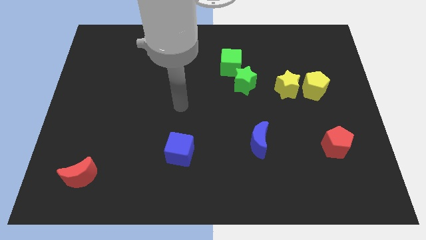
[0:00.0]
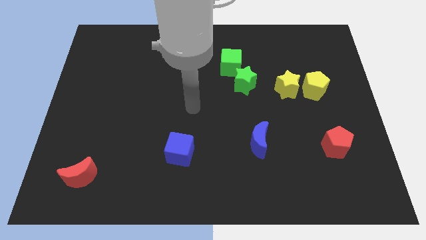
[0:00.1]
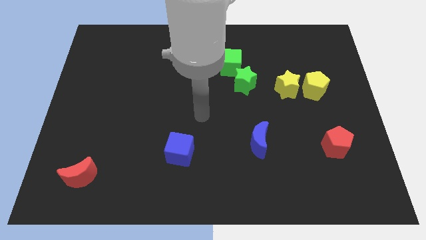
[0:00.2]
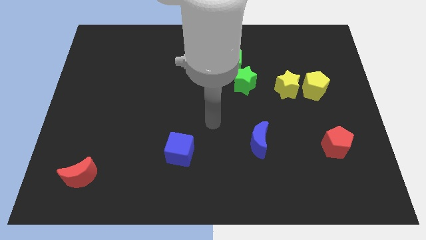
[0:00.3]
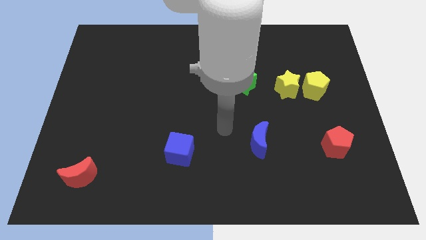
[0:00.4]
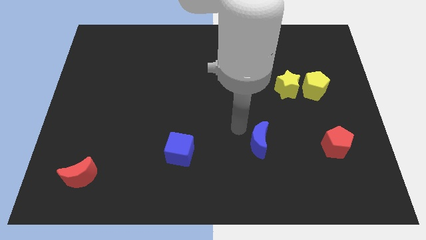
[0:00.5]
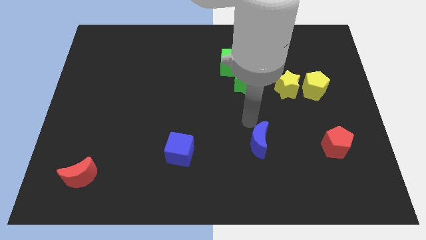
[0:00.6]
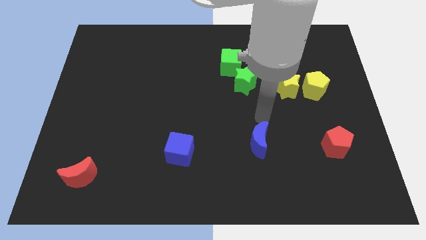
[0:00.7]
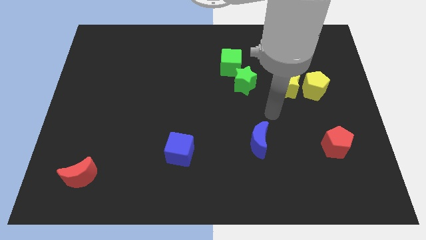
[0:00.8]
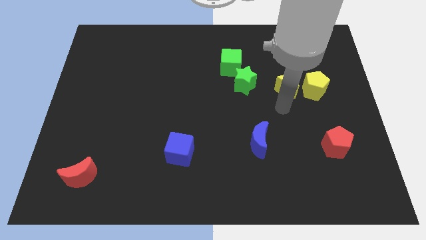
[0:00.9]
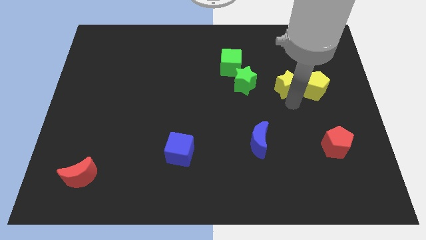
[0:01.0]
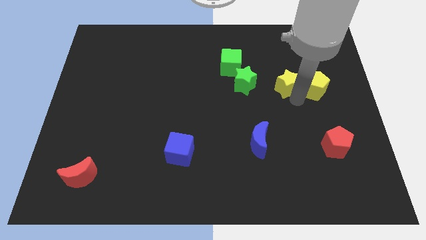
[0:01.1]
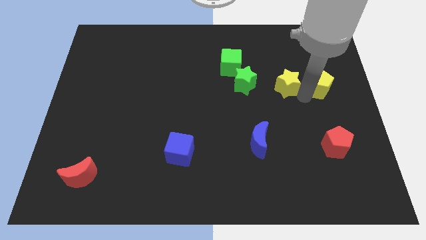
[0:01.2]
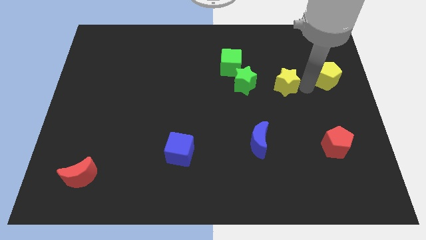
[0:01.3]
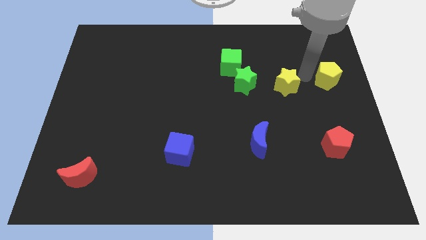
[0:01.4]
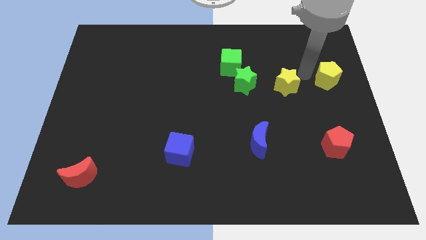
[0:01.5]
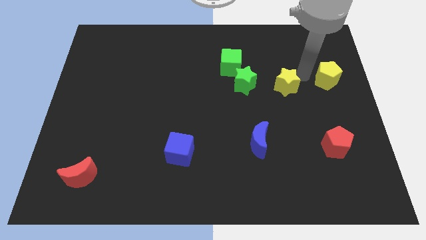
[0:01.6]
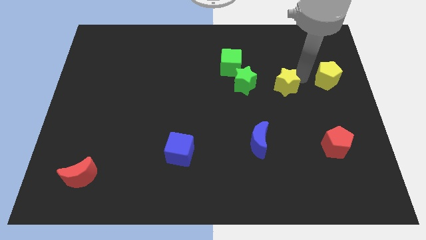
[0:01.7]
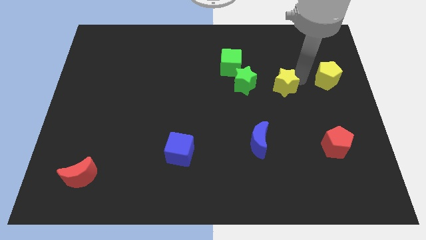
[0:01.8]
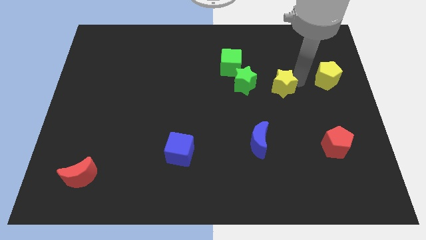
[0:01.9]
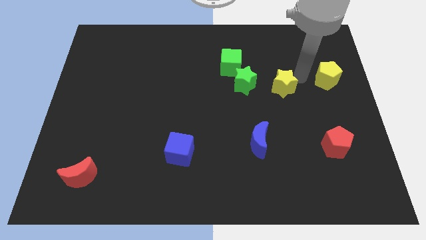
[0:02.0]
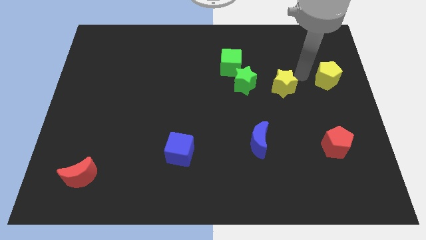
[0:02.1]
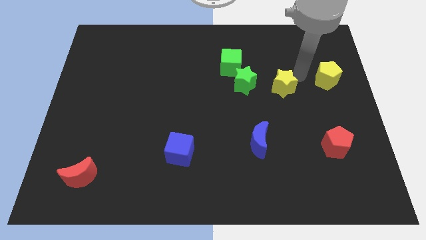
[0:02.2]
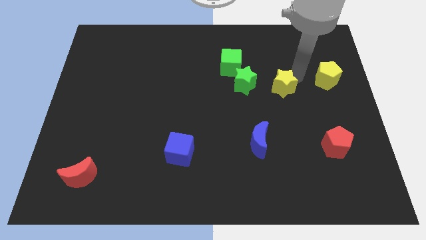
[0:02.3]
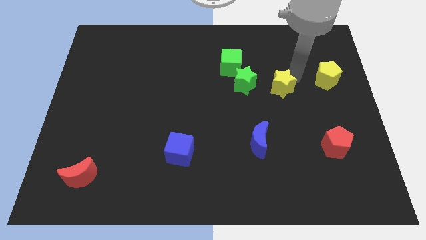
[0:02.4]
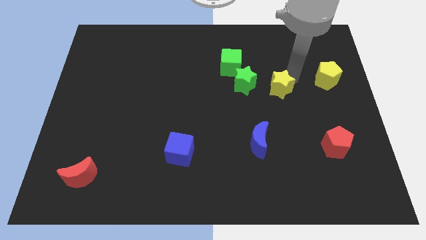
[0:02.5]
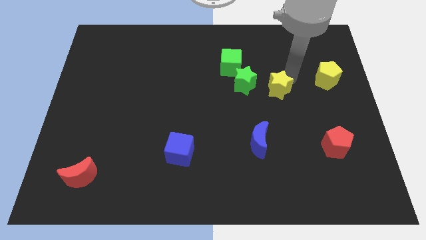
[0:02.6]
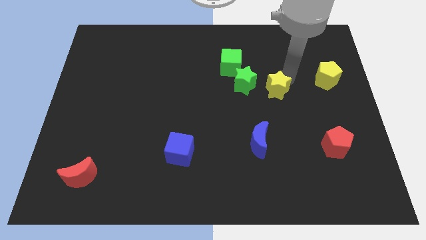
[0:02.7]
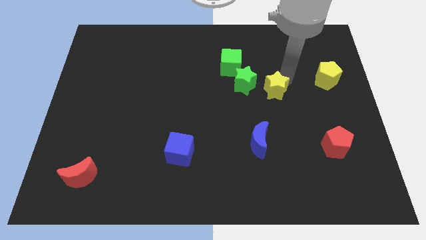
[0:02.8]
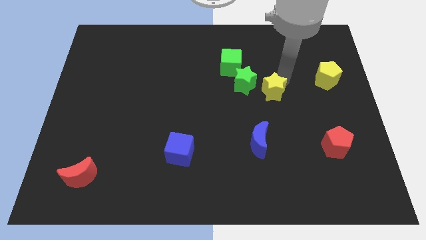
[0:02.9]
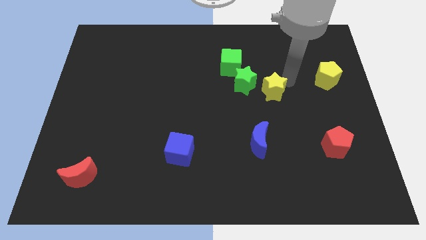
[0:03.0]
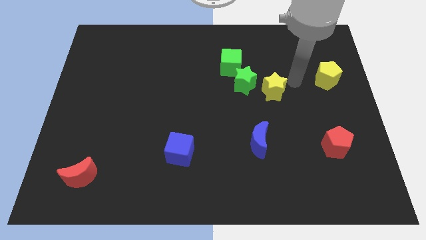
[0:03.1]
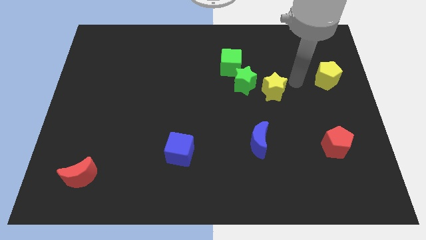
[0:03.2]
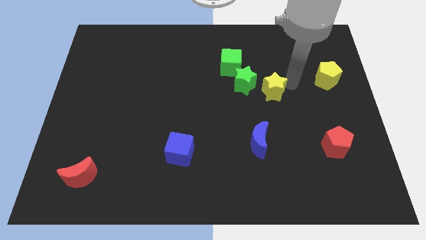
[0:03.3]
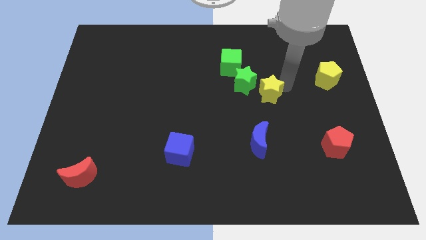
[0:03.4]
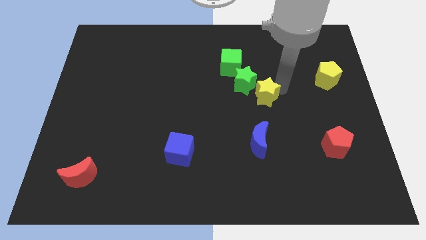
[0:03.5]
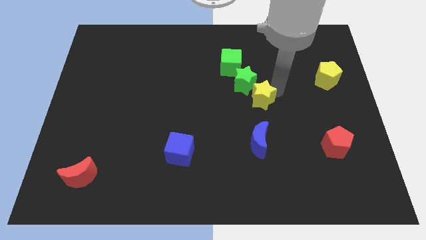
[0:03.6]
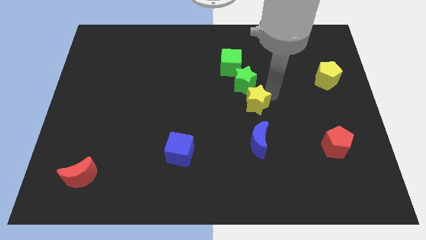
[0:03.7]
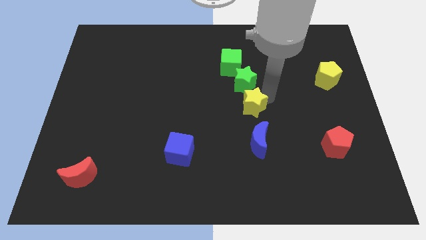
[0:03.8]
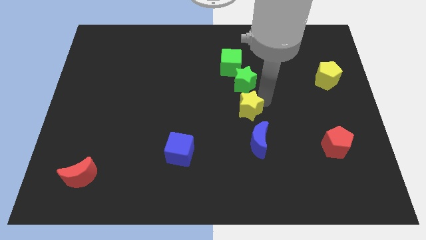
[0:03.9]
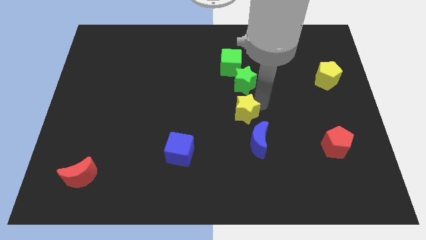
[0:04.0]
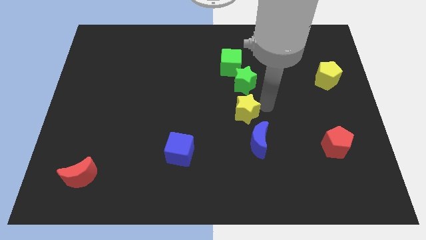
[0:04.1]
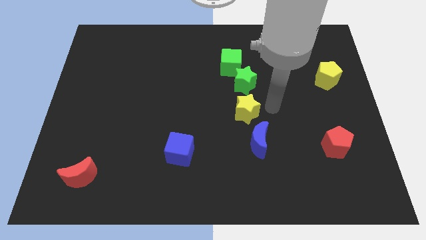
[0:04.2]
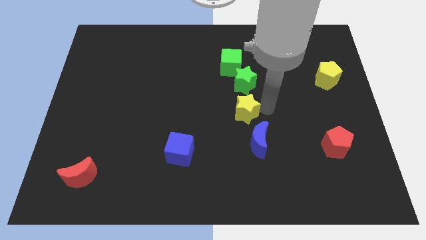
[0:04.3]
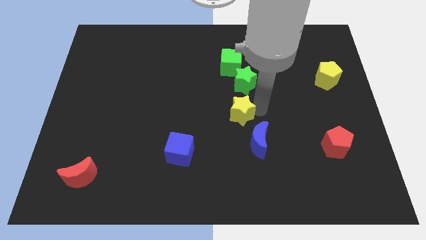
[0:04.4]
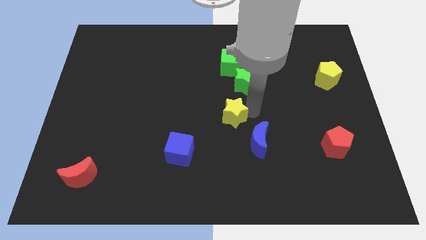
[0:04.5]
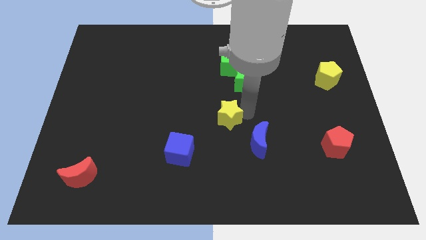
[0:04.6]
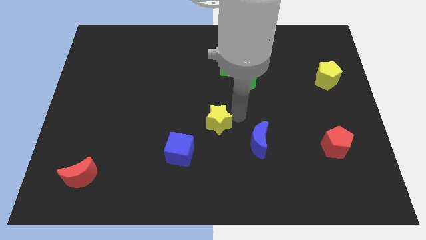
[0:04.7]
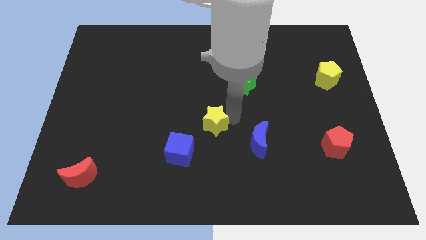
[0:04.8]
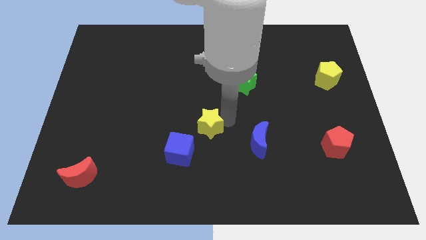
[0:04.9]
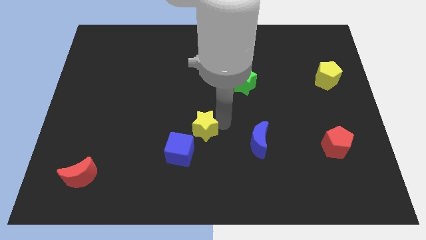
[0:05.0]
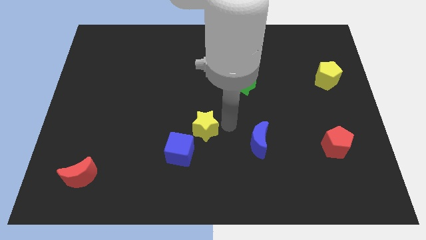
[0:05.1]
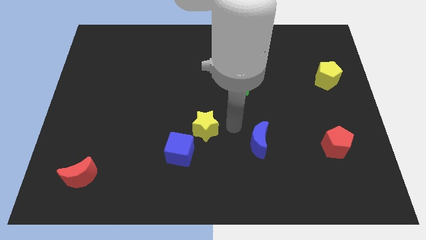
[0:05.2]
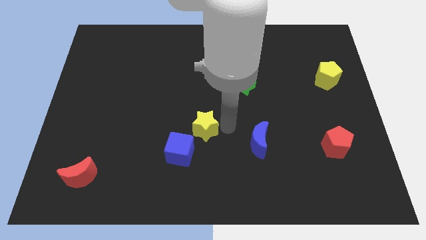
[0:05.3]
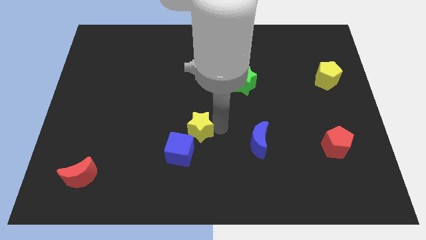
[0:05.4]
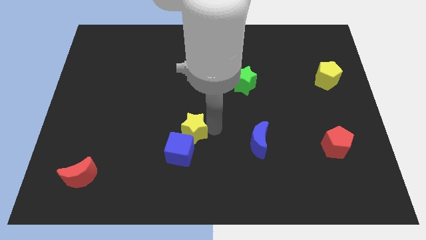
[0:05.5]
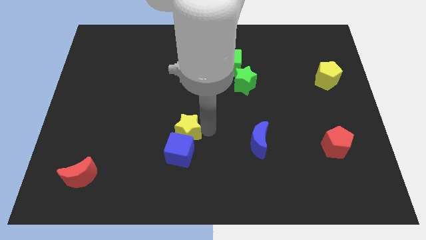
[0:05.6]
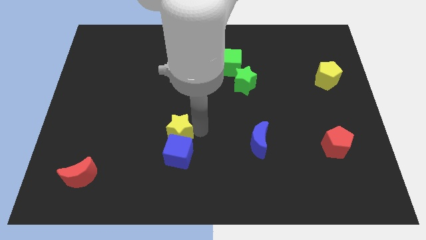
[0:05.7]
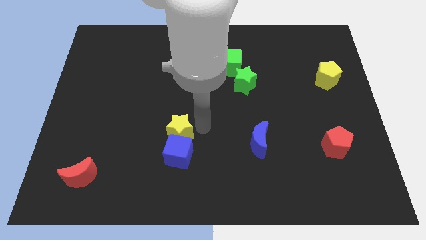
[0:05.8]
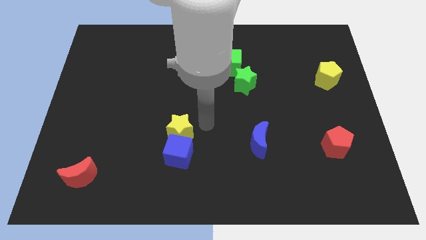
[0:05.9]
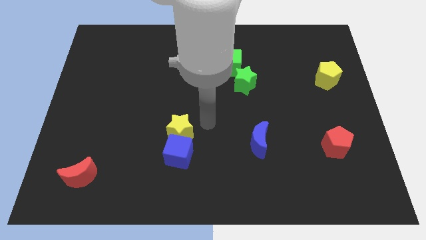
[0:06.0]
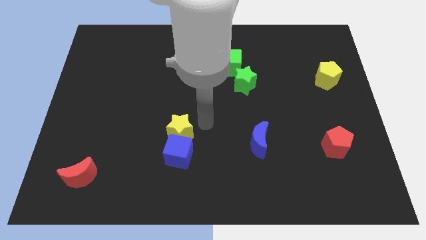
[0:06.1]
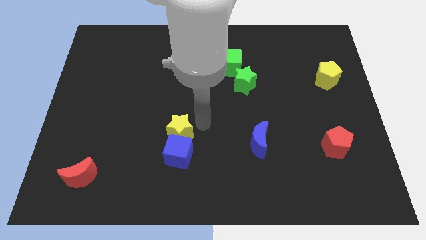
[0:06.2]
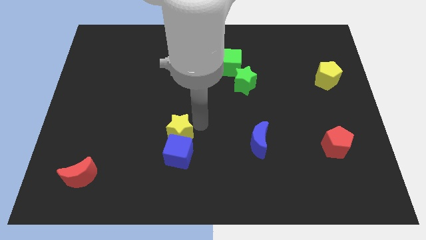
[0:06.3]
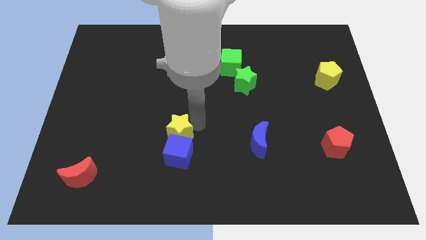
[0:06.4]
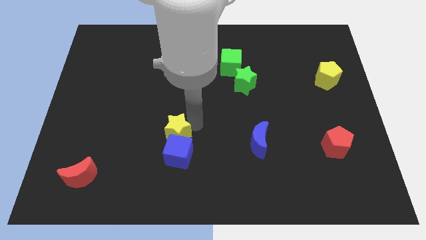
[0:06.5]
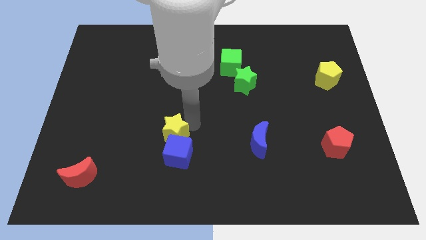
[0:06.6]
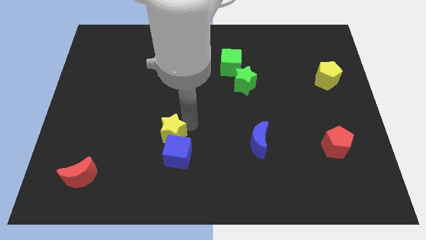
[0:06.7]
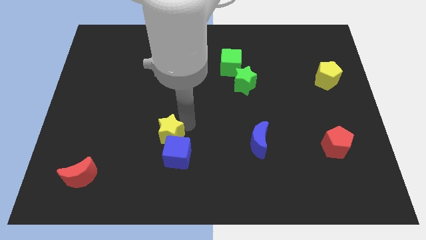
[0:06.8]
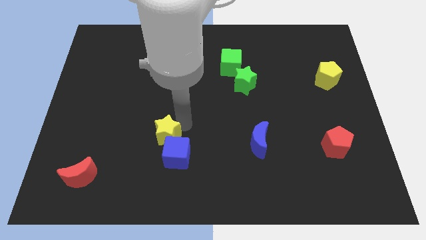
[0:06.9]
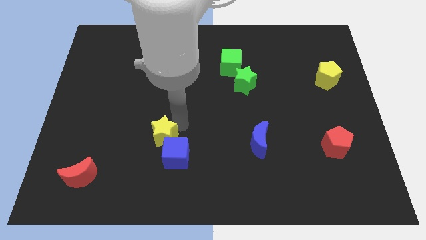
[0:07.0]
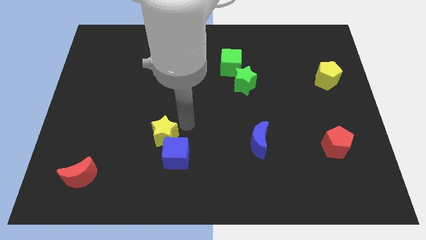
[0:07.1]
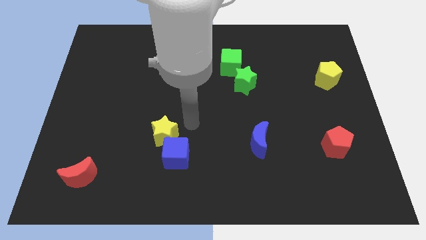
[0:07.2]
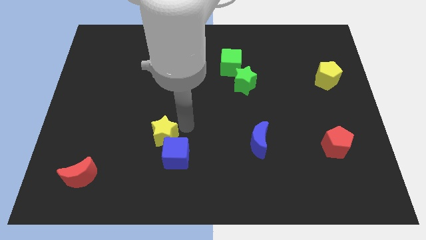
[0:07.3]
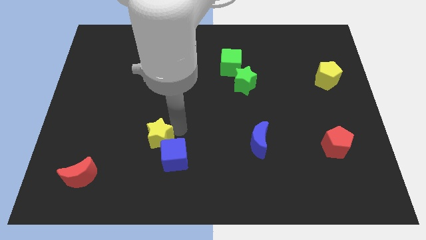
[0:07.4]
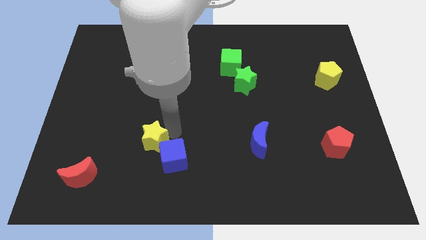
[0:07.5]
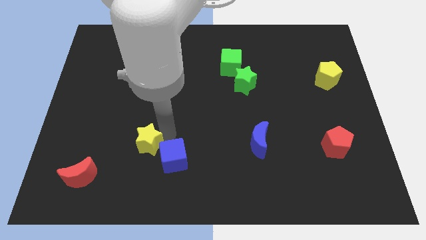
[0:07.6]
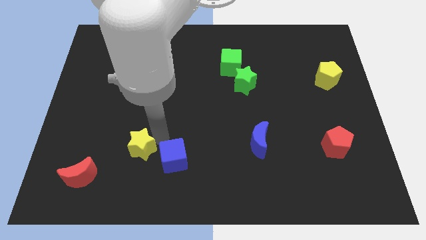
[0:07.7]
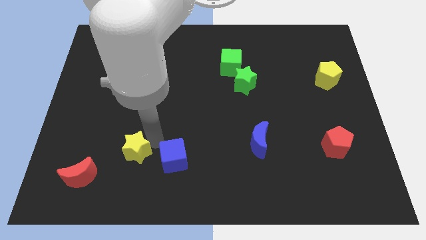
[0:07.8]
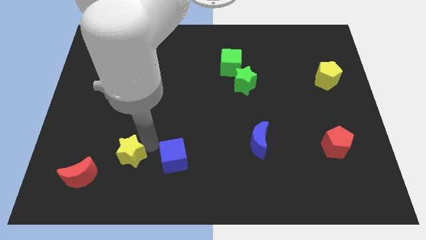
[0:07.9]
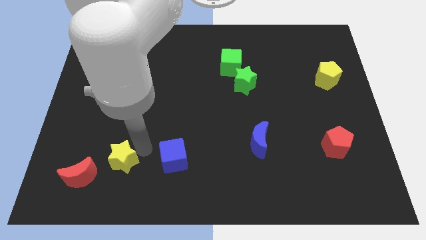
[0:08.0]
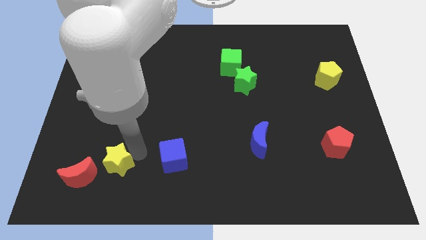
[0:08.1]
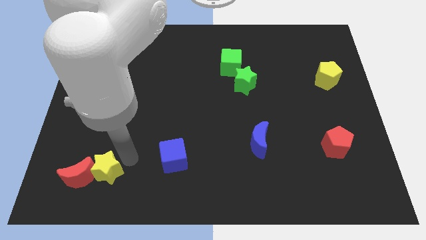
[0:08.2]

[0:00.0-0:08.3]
move the yellow star close to the red moon
